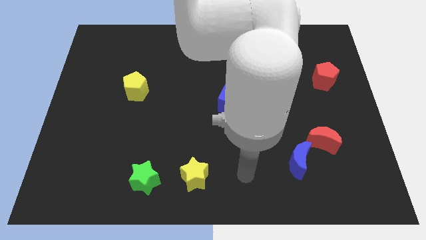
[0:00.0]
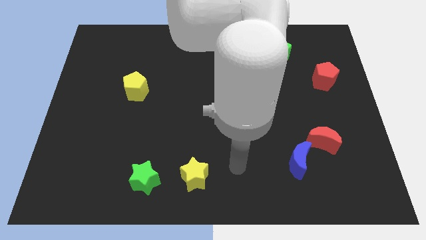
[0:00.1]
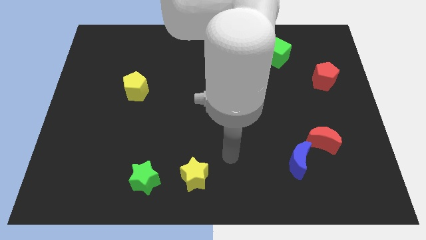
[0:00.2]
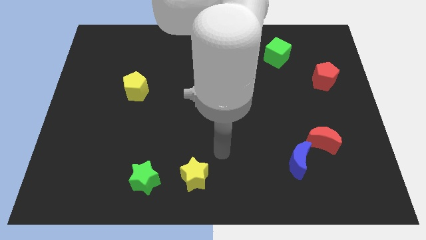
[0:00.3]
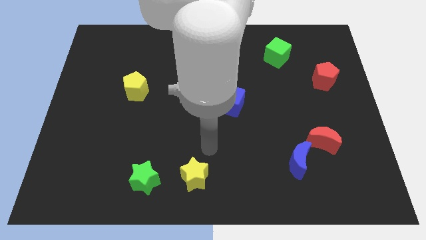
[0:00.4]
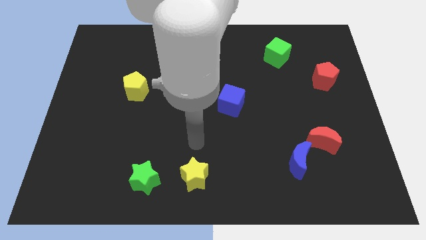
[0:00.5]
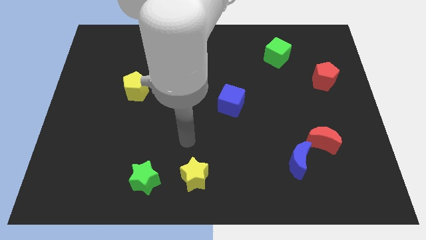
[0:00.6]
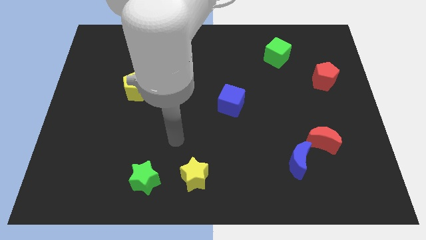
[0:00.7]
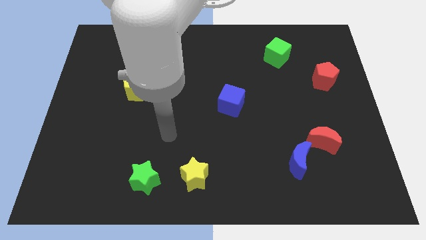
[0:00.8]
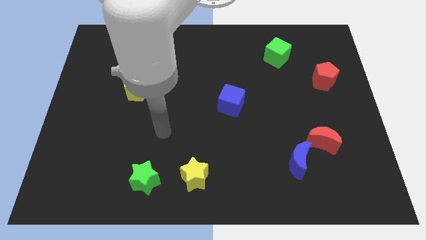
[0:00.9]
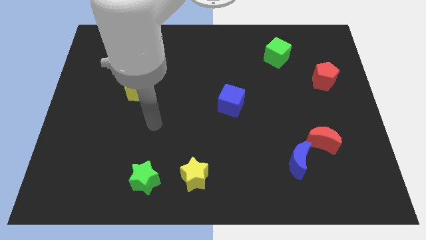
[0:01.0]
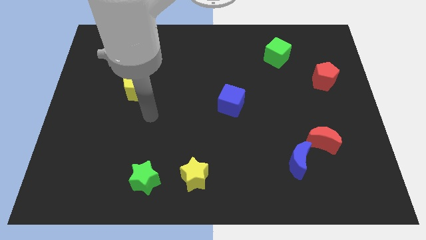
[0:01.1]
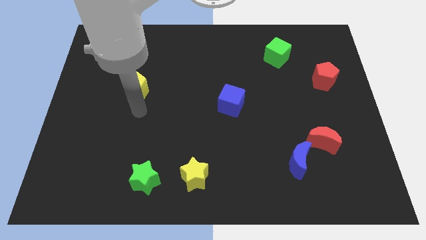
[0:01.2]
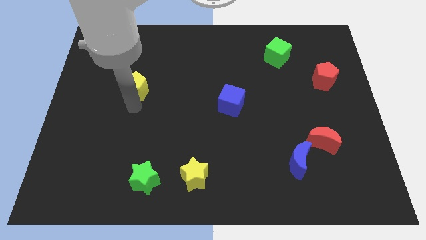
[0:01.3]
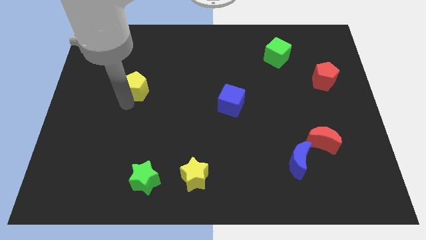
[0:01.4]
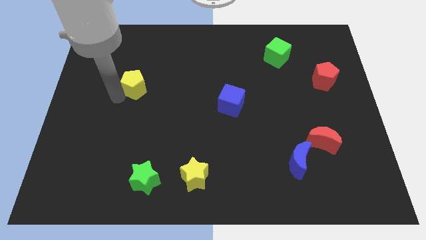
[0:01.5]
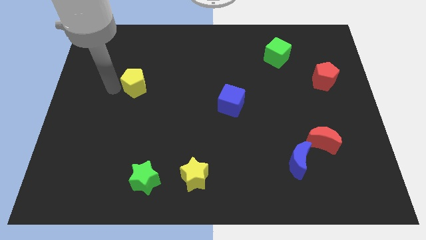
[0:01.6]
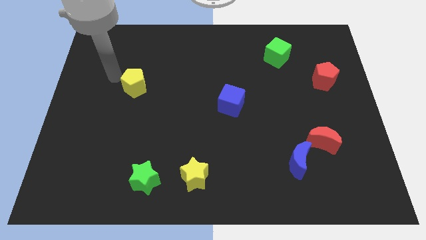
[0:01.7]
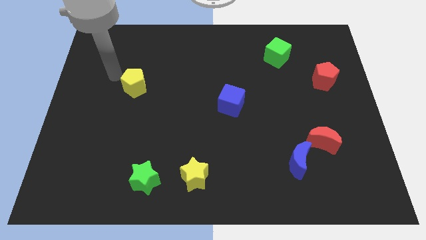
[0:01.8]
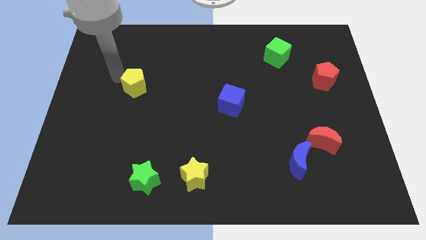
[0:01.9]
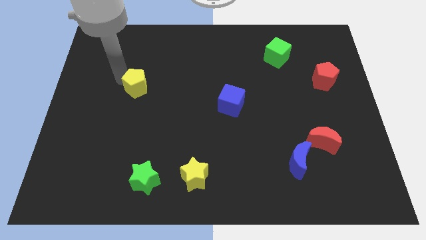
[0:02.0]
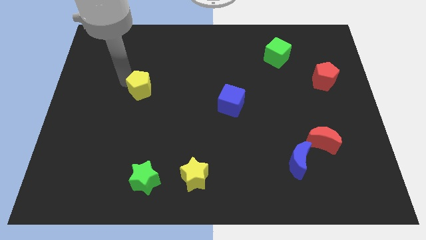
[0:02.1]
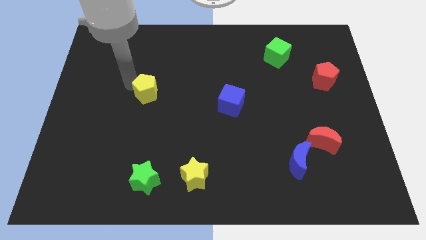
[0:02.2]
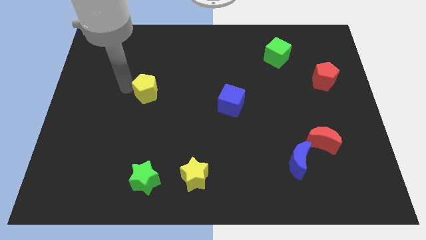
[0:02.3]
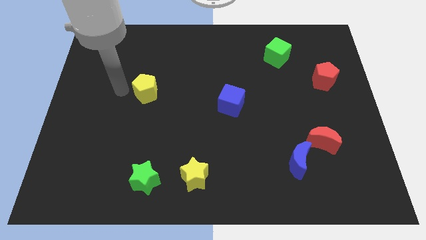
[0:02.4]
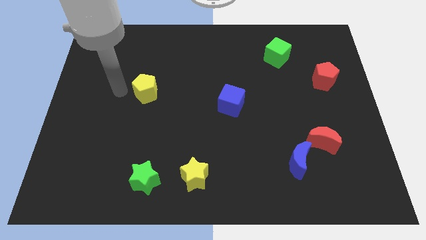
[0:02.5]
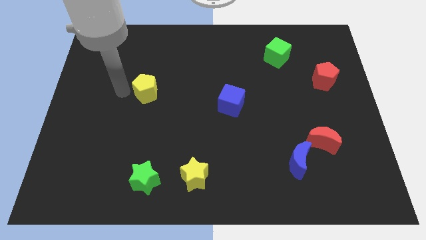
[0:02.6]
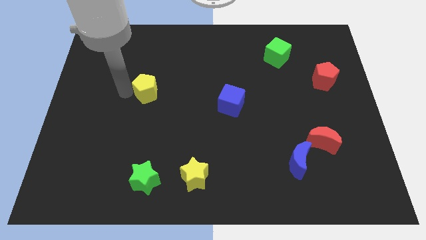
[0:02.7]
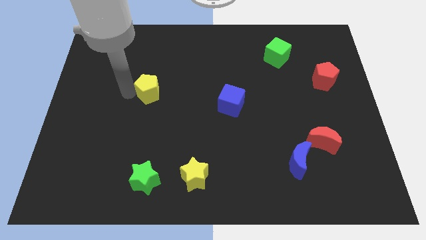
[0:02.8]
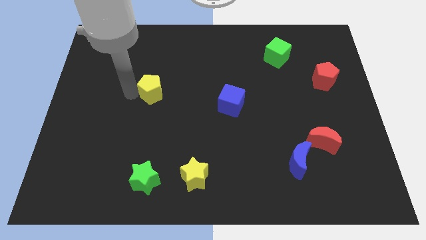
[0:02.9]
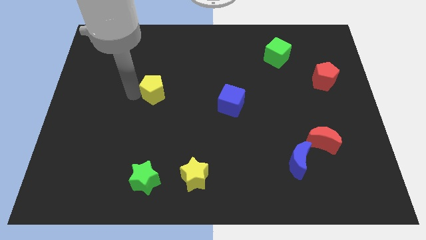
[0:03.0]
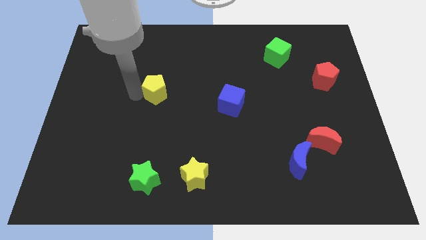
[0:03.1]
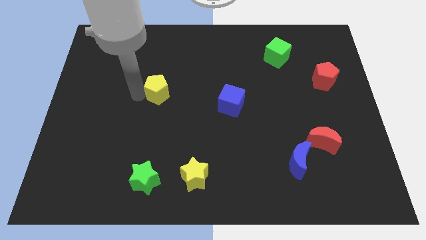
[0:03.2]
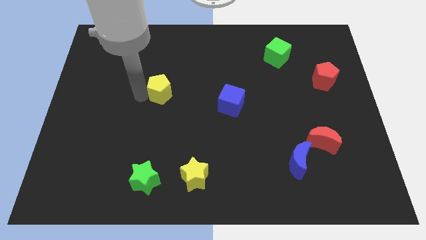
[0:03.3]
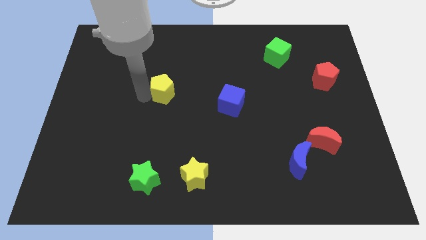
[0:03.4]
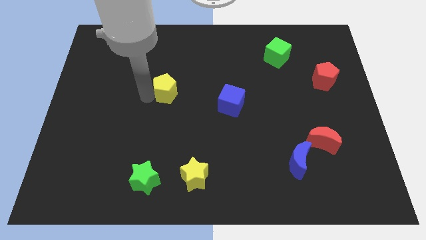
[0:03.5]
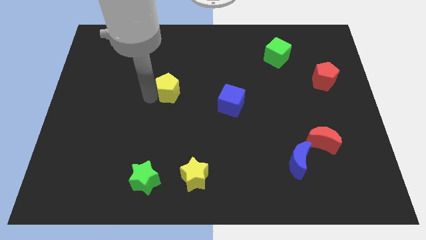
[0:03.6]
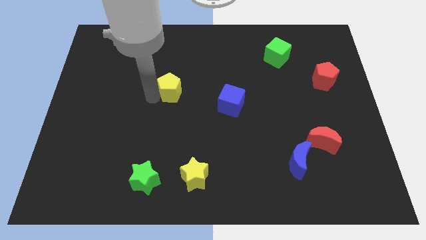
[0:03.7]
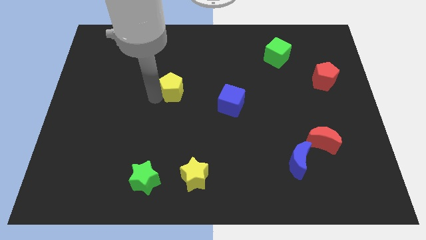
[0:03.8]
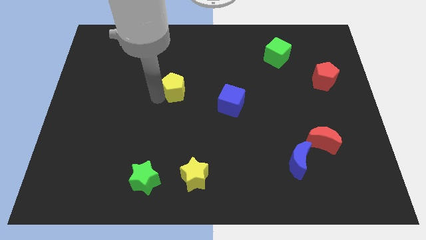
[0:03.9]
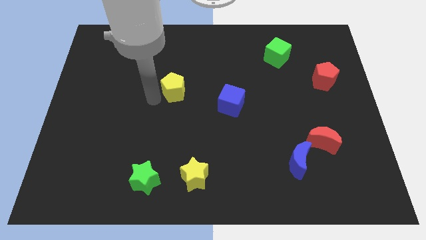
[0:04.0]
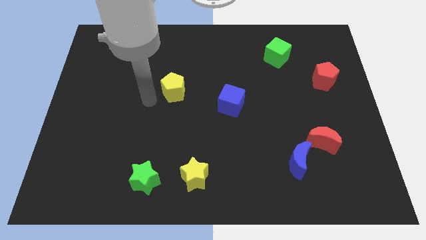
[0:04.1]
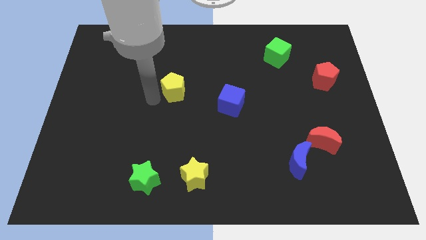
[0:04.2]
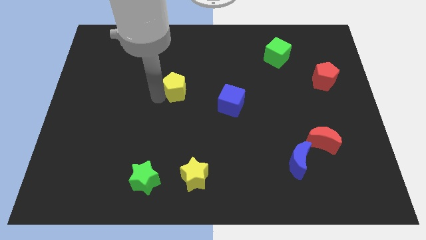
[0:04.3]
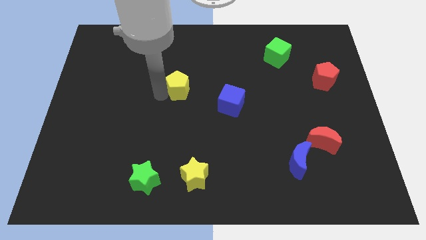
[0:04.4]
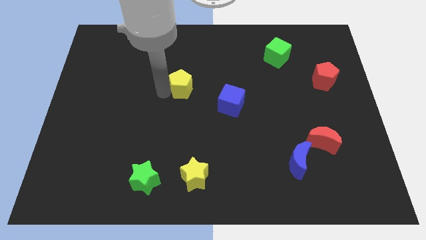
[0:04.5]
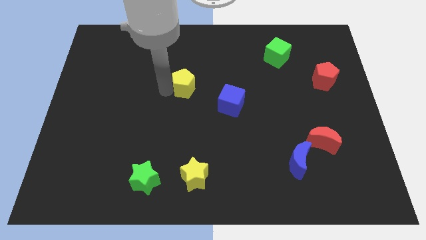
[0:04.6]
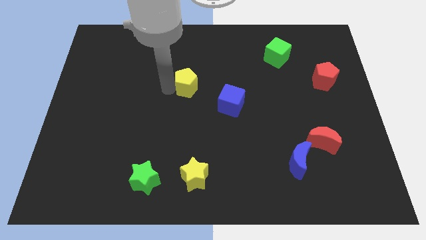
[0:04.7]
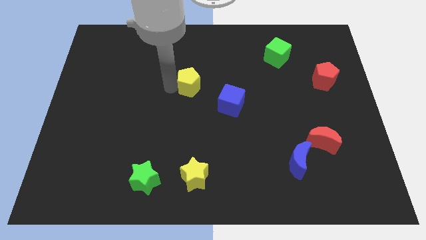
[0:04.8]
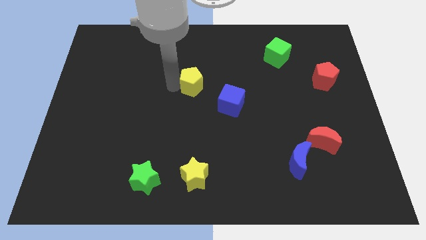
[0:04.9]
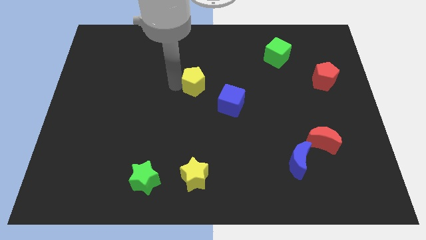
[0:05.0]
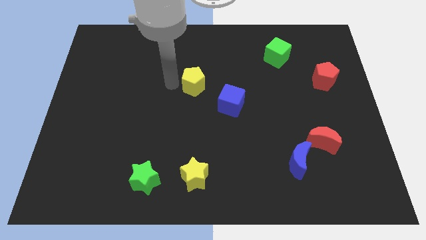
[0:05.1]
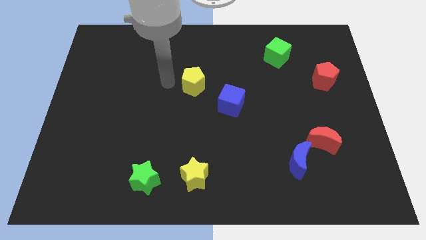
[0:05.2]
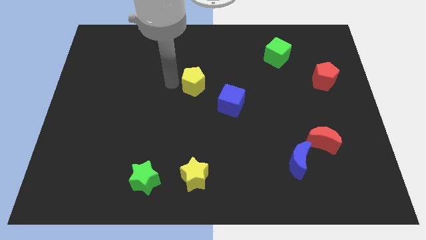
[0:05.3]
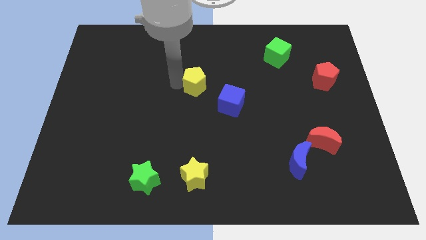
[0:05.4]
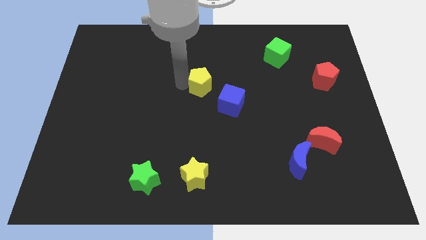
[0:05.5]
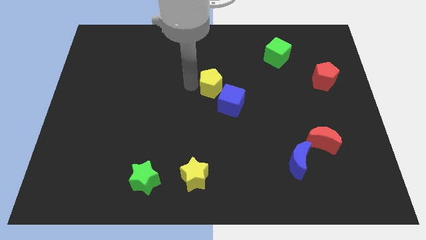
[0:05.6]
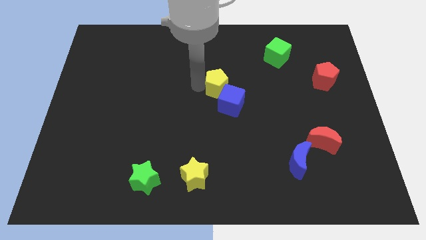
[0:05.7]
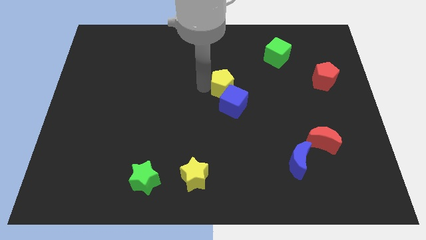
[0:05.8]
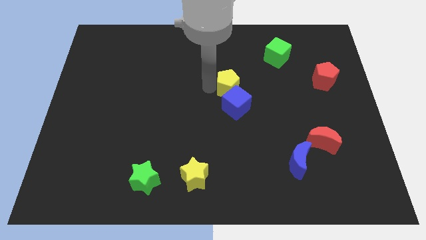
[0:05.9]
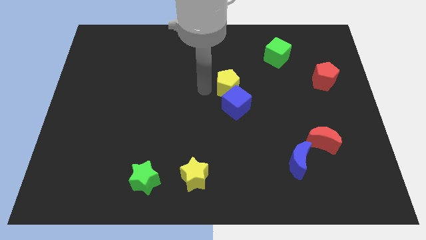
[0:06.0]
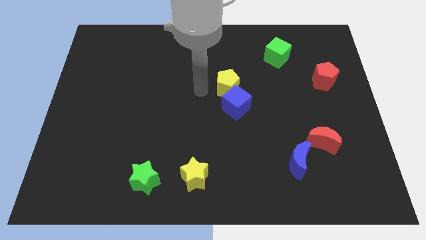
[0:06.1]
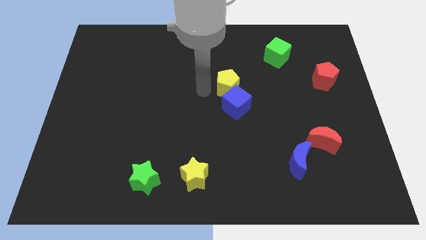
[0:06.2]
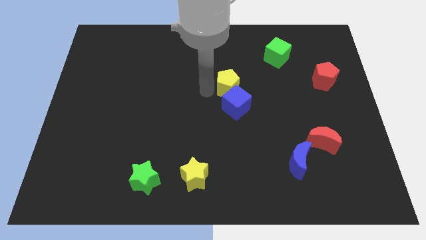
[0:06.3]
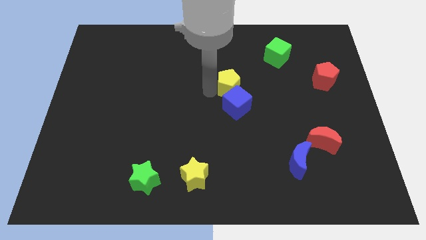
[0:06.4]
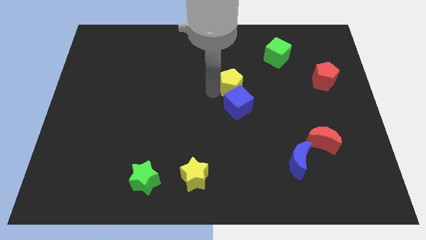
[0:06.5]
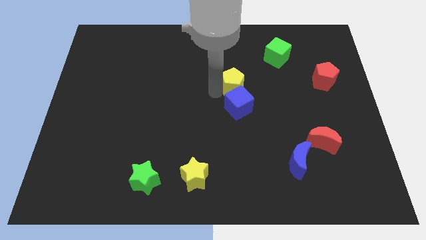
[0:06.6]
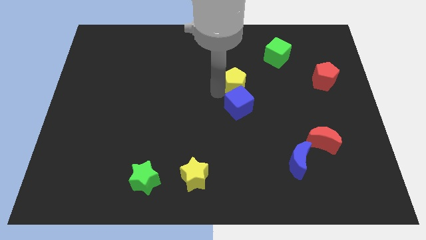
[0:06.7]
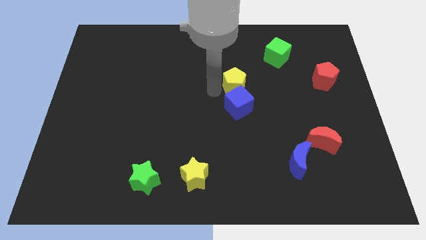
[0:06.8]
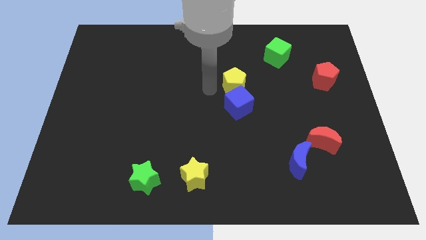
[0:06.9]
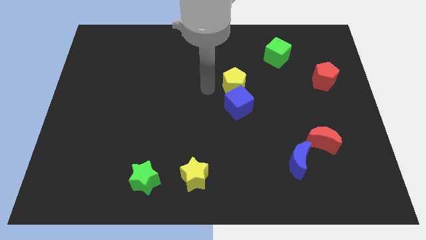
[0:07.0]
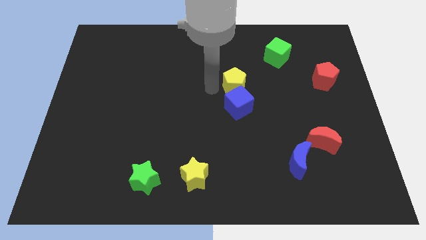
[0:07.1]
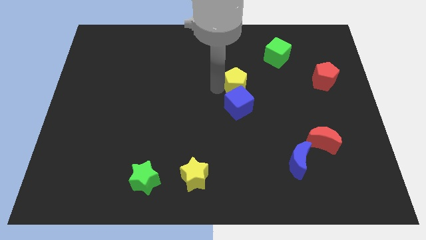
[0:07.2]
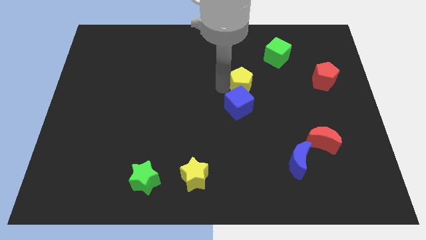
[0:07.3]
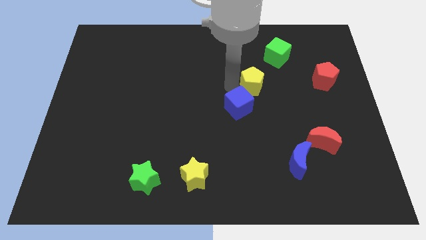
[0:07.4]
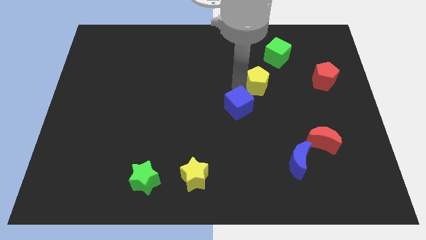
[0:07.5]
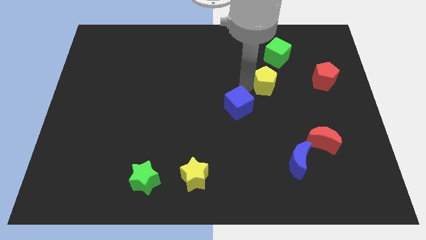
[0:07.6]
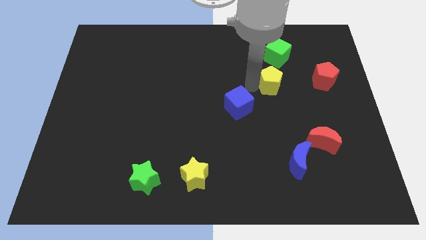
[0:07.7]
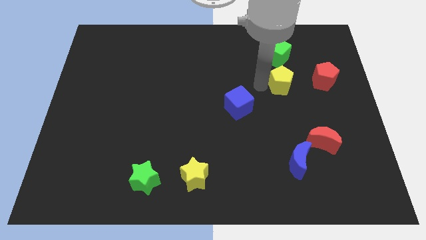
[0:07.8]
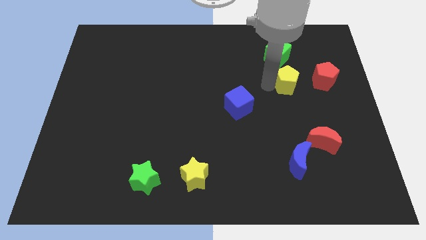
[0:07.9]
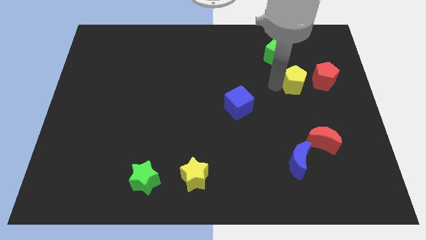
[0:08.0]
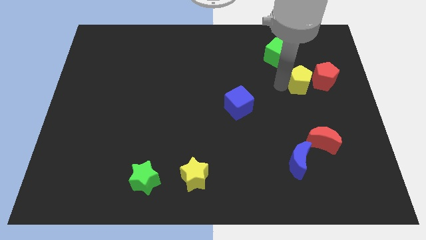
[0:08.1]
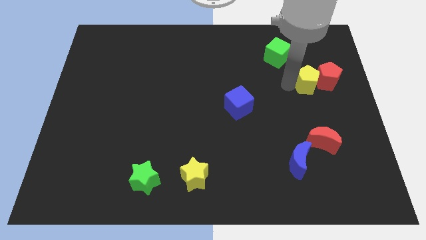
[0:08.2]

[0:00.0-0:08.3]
slide the yellow pentagon to the red pentagon
